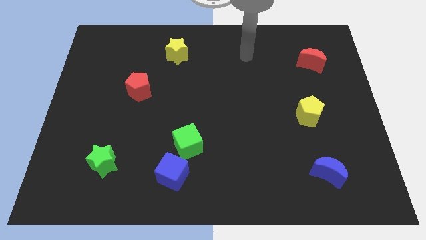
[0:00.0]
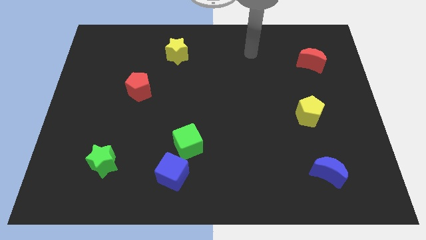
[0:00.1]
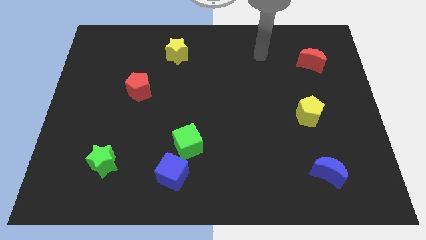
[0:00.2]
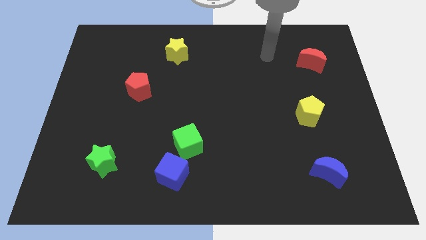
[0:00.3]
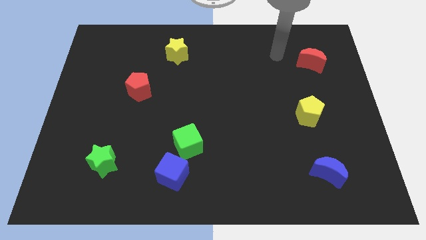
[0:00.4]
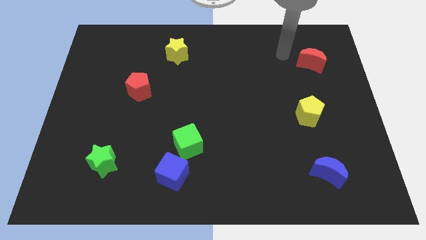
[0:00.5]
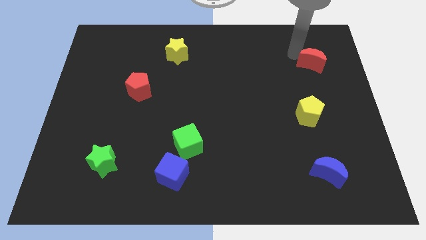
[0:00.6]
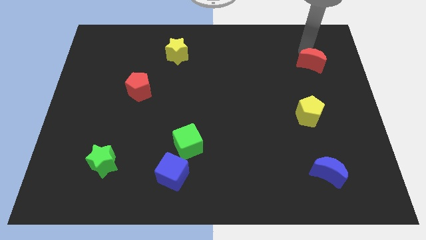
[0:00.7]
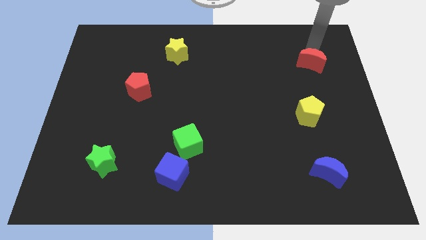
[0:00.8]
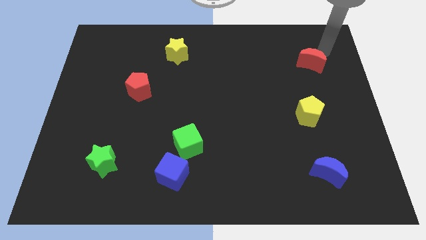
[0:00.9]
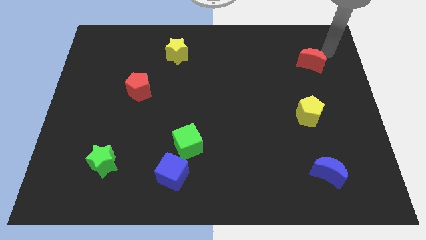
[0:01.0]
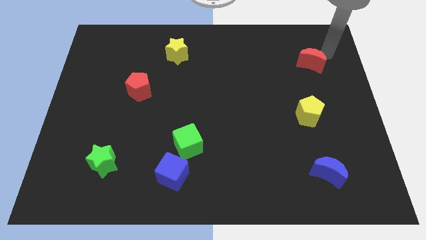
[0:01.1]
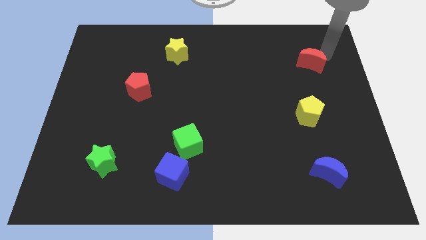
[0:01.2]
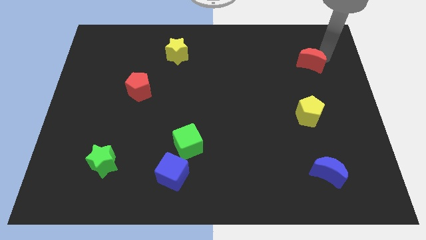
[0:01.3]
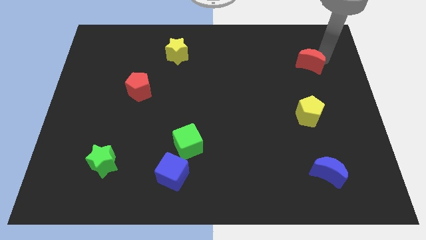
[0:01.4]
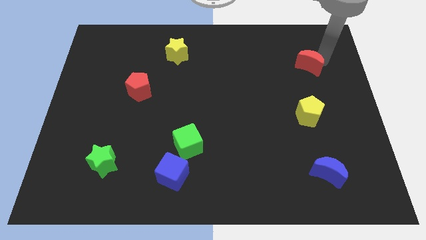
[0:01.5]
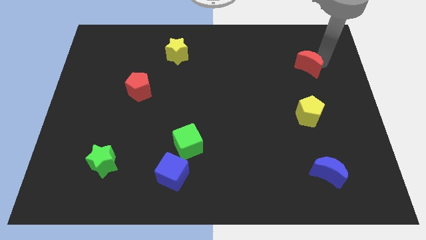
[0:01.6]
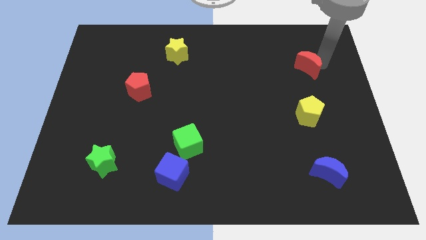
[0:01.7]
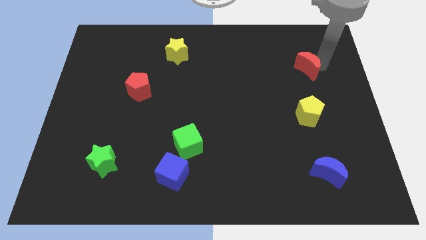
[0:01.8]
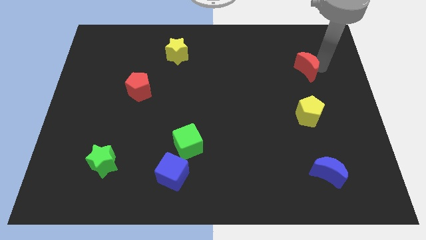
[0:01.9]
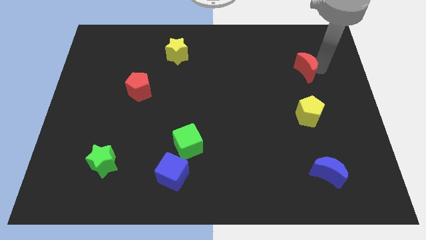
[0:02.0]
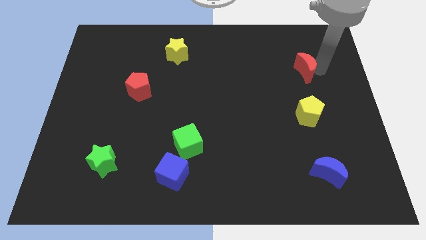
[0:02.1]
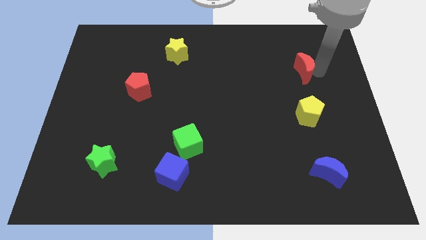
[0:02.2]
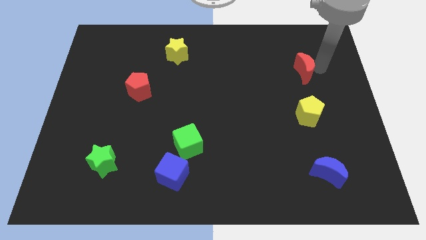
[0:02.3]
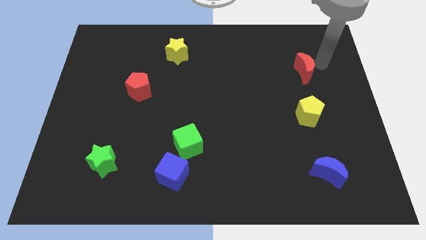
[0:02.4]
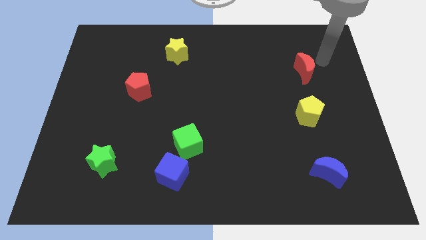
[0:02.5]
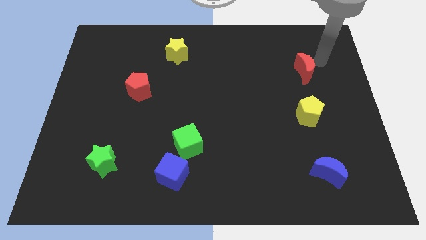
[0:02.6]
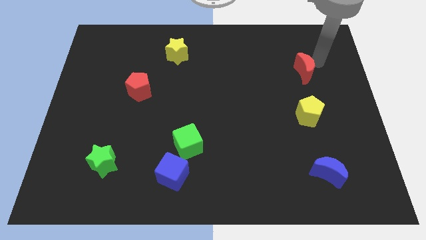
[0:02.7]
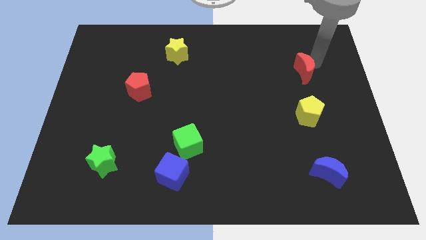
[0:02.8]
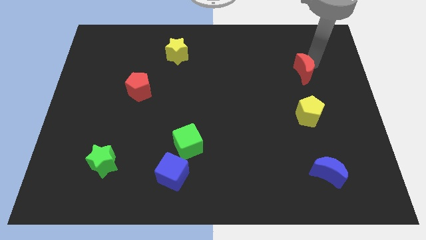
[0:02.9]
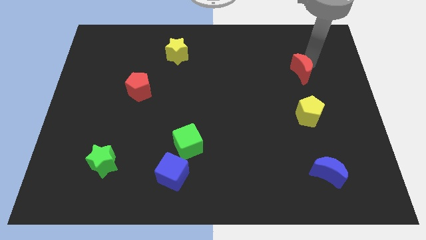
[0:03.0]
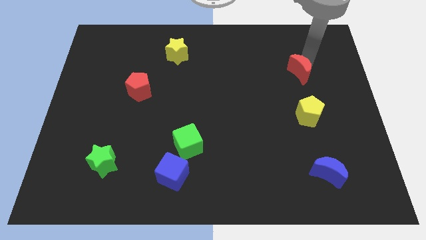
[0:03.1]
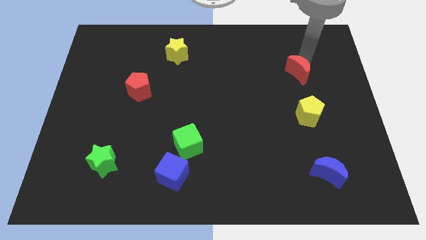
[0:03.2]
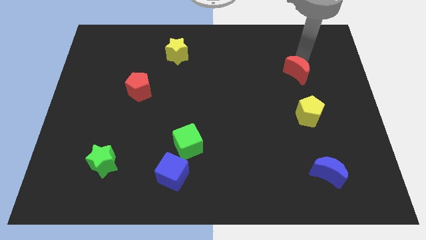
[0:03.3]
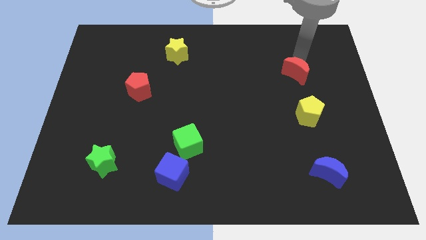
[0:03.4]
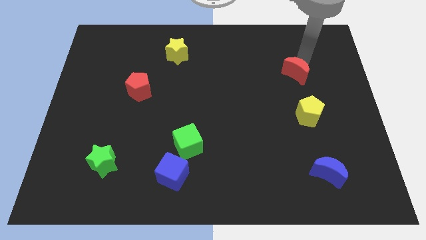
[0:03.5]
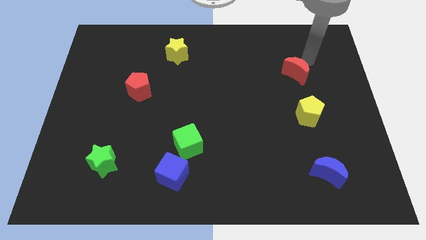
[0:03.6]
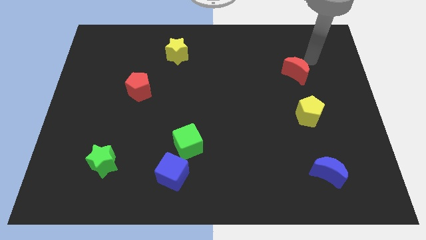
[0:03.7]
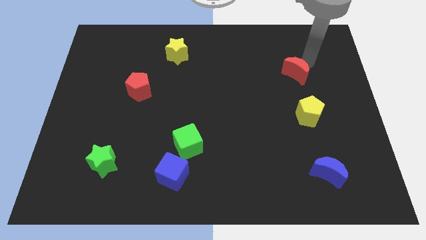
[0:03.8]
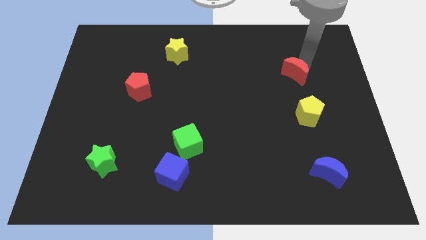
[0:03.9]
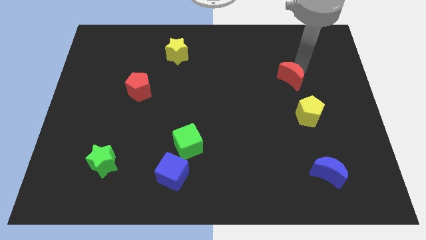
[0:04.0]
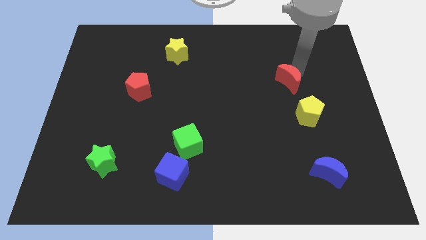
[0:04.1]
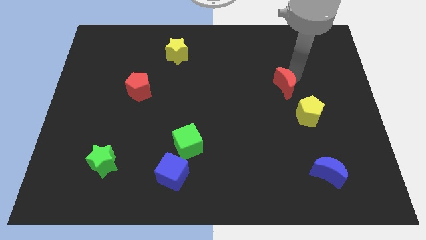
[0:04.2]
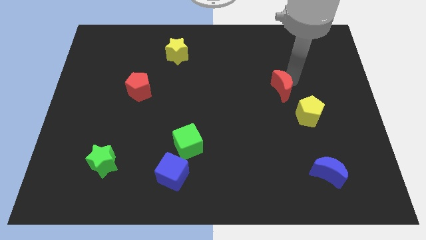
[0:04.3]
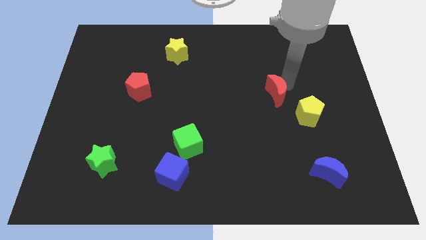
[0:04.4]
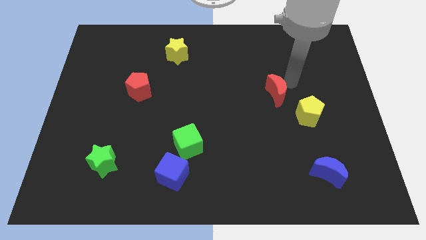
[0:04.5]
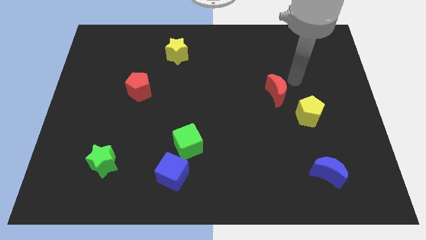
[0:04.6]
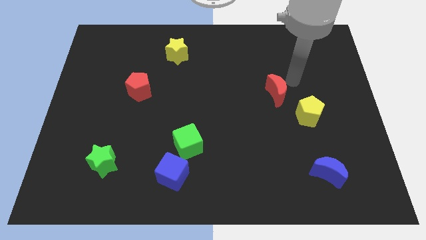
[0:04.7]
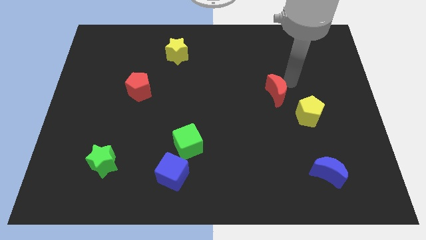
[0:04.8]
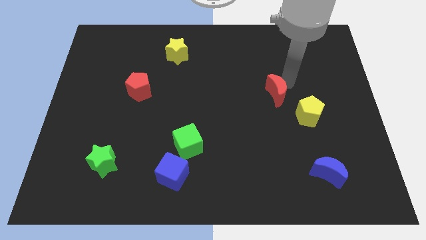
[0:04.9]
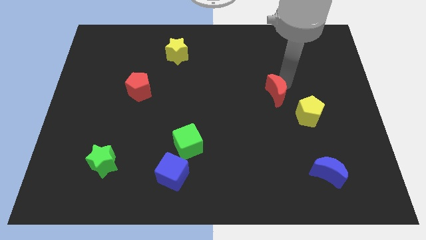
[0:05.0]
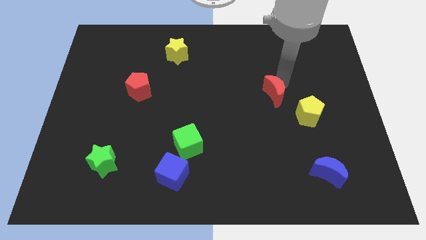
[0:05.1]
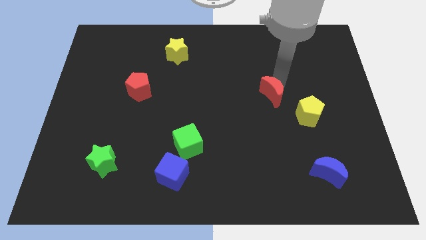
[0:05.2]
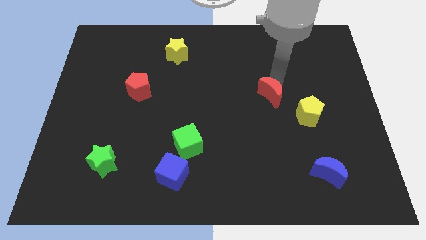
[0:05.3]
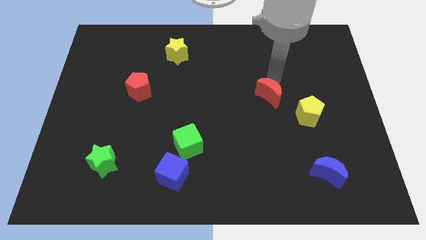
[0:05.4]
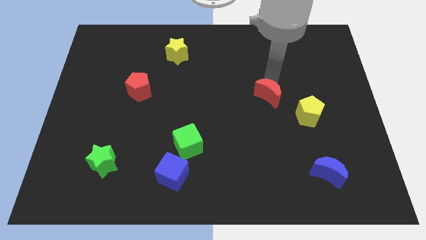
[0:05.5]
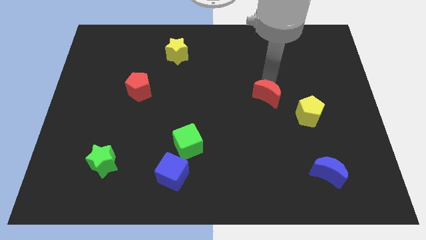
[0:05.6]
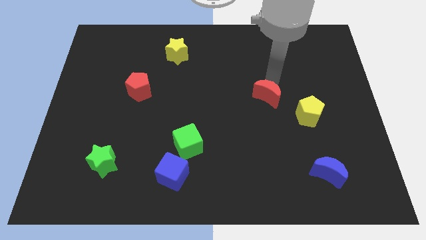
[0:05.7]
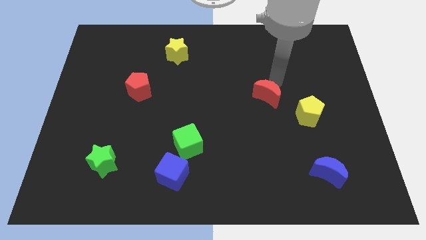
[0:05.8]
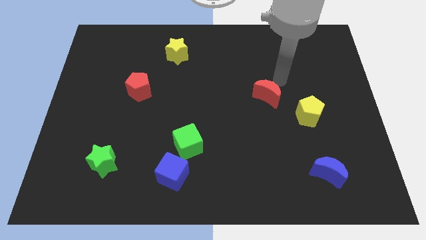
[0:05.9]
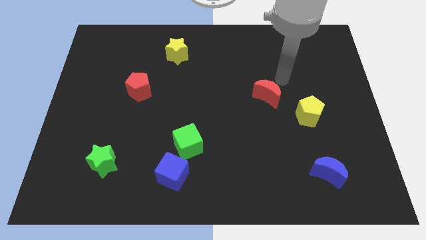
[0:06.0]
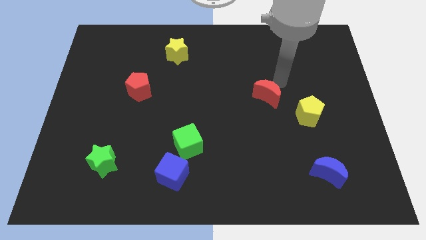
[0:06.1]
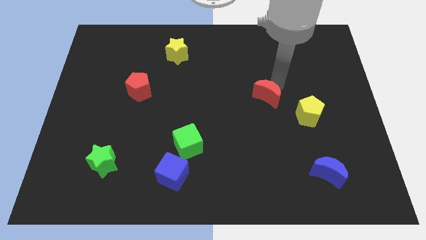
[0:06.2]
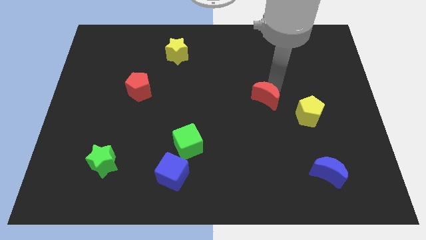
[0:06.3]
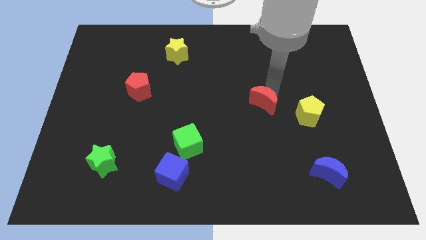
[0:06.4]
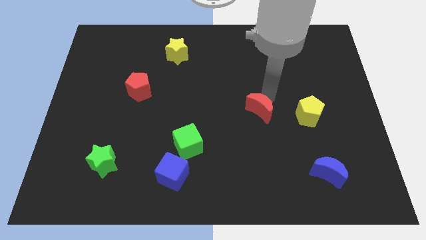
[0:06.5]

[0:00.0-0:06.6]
slide the red moon down and left diagonally

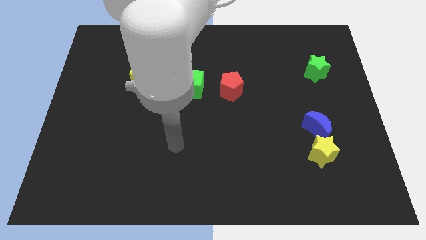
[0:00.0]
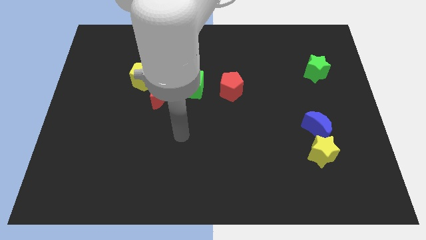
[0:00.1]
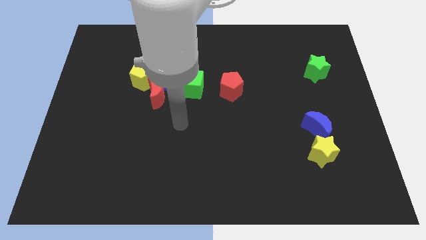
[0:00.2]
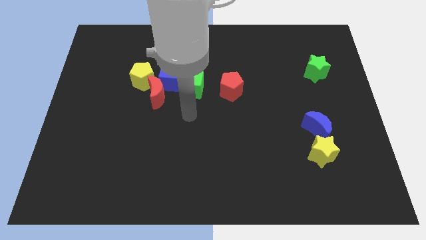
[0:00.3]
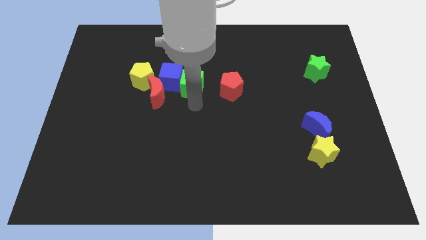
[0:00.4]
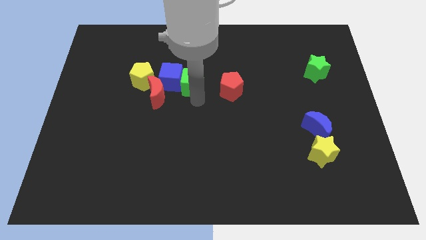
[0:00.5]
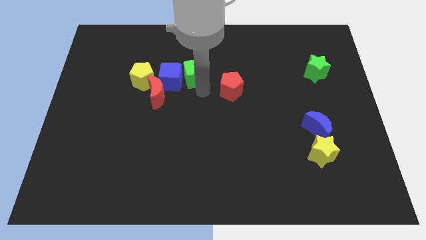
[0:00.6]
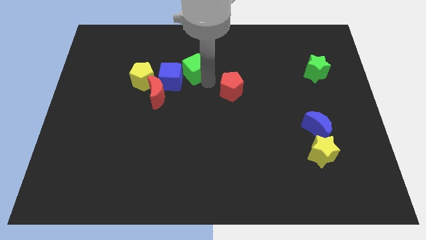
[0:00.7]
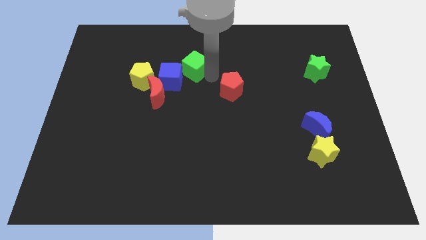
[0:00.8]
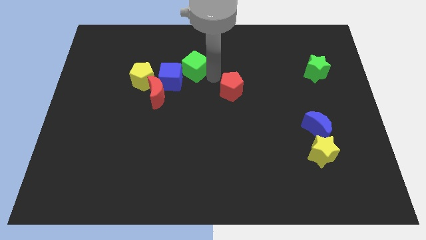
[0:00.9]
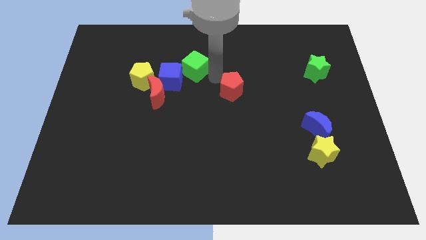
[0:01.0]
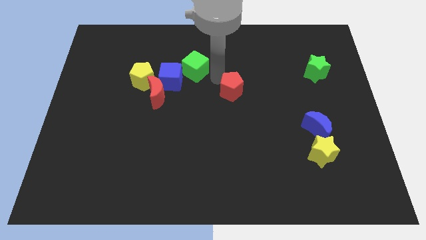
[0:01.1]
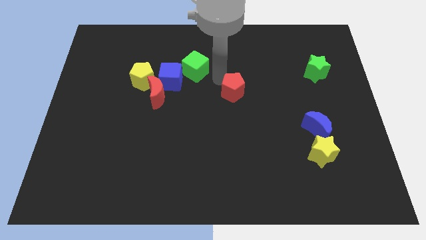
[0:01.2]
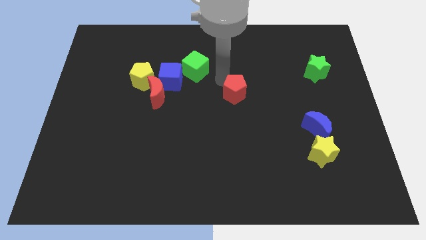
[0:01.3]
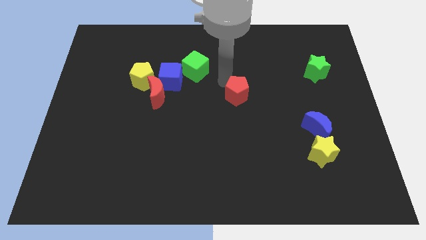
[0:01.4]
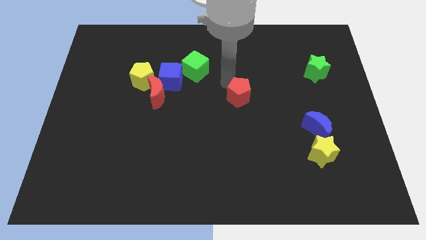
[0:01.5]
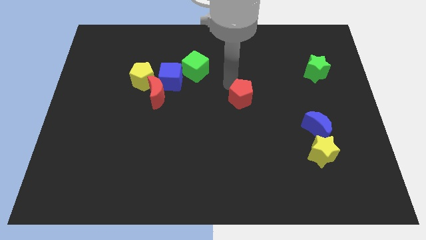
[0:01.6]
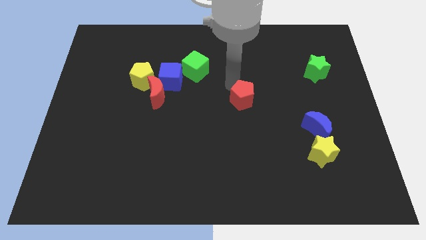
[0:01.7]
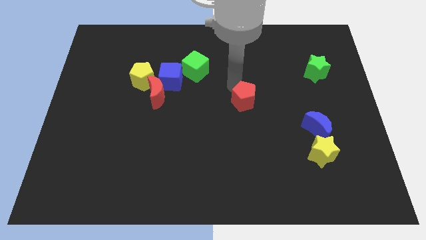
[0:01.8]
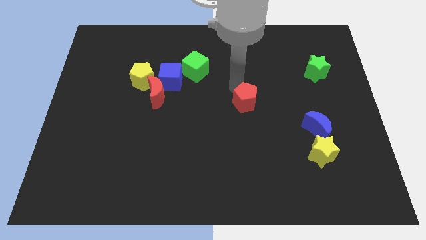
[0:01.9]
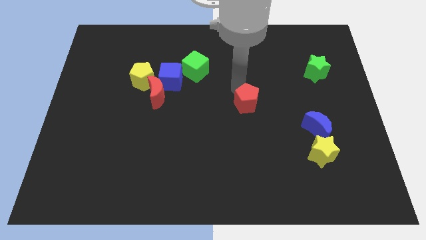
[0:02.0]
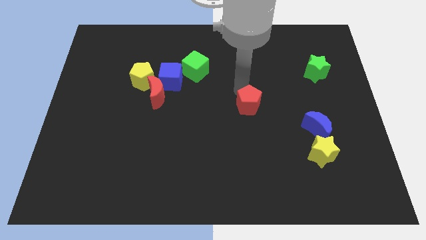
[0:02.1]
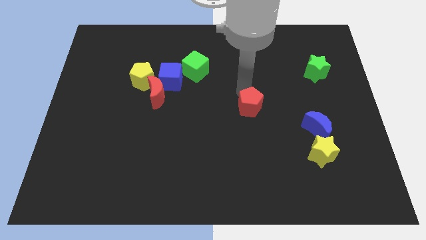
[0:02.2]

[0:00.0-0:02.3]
slightly slide the red pentagon downwards and right diagonally
